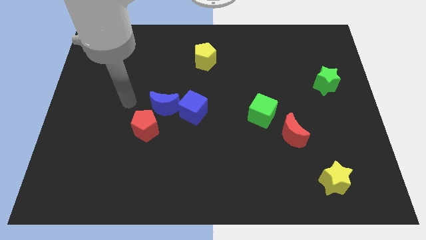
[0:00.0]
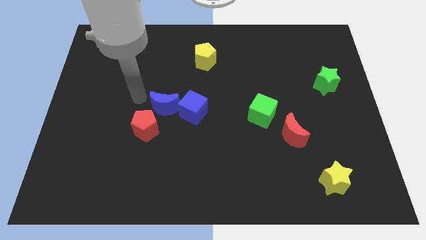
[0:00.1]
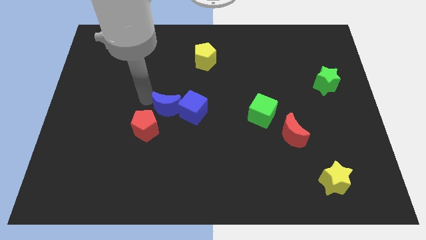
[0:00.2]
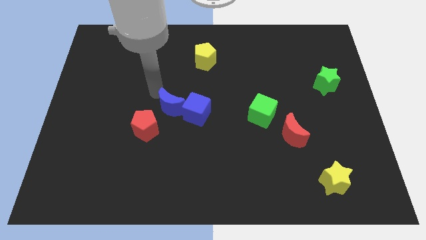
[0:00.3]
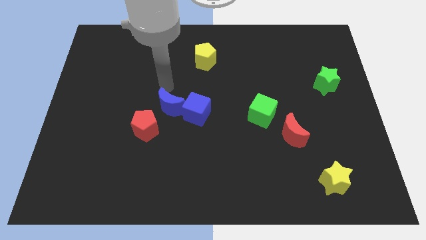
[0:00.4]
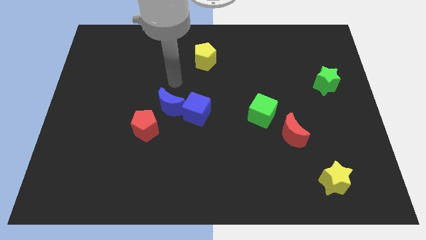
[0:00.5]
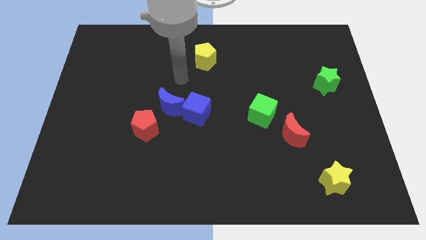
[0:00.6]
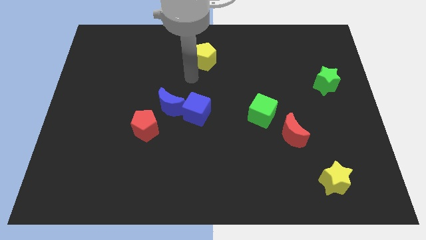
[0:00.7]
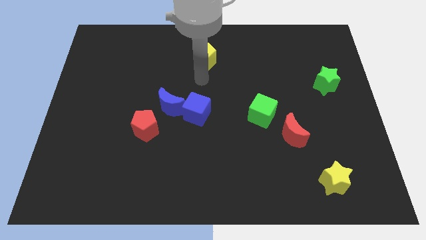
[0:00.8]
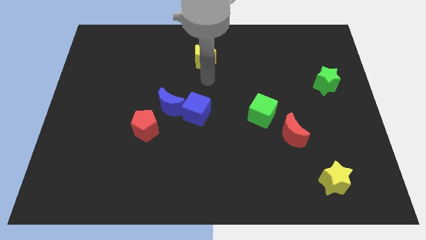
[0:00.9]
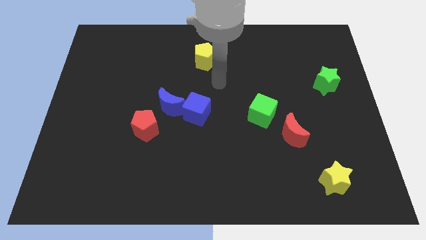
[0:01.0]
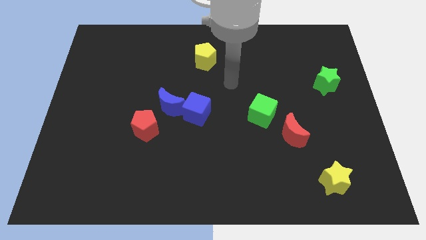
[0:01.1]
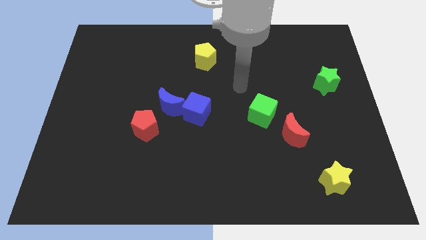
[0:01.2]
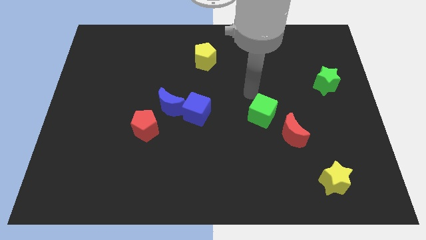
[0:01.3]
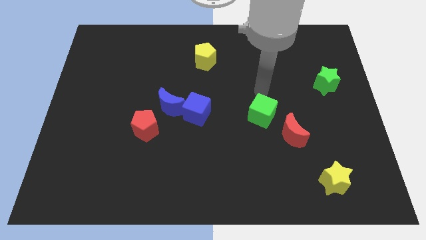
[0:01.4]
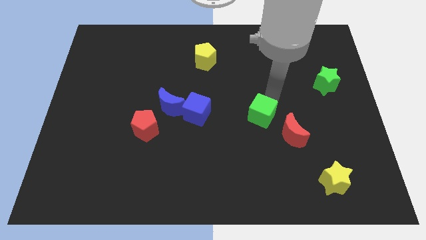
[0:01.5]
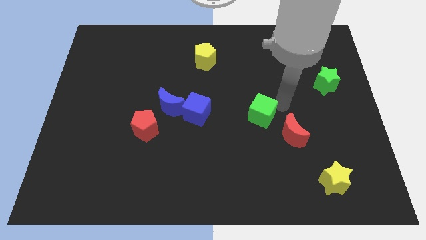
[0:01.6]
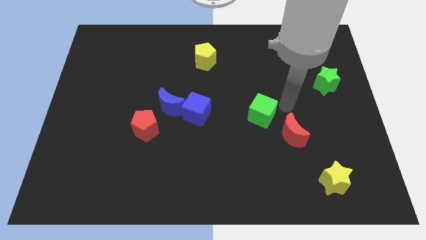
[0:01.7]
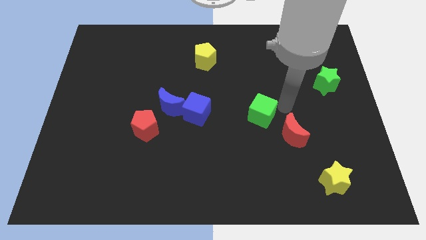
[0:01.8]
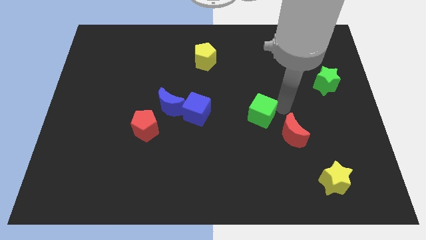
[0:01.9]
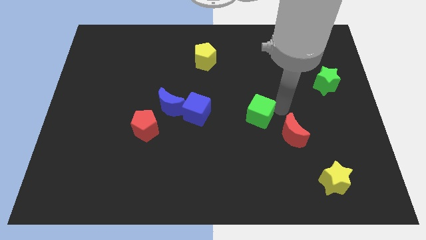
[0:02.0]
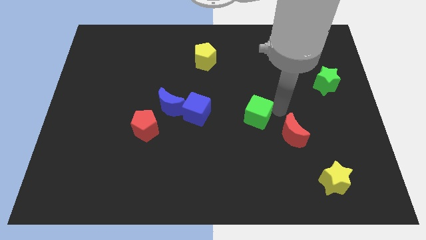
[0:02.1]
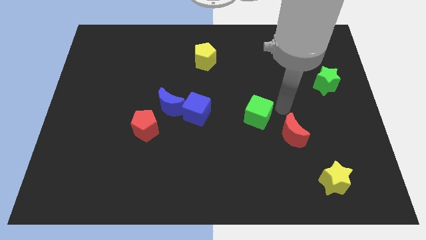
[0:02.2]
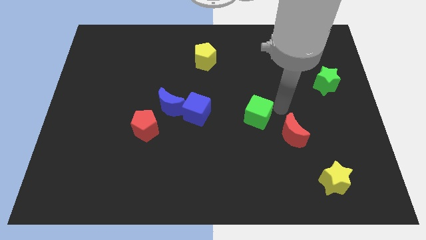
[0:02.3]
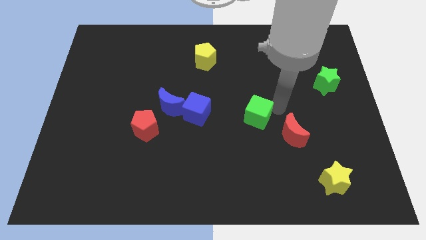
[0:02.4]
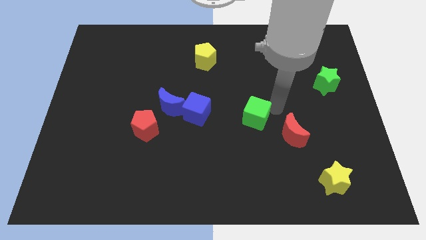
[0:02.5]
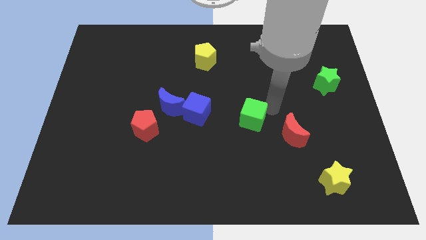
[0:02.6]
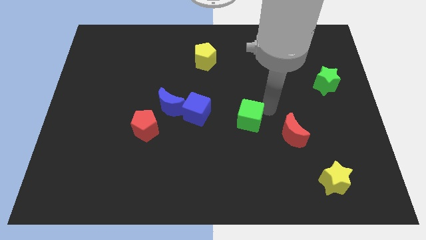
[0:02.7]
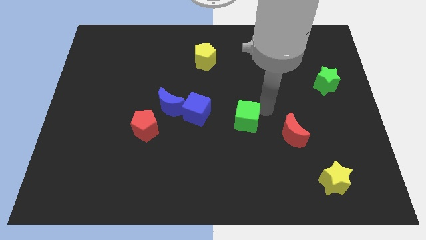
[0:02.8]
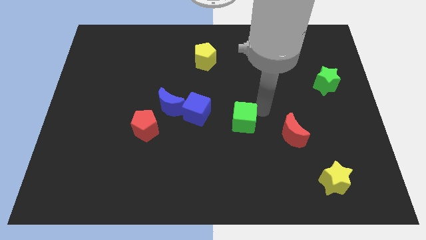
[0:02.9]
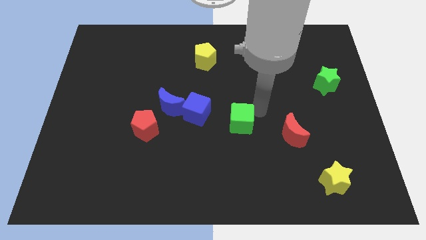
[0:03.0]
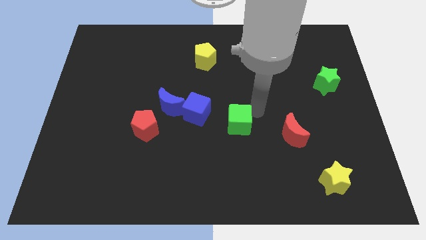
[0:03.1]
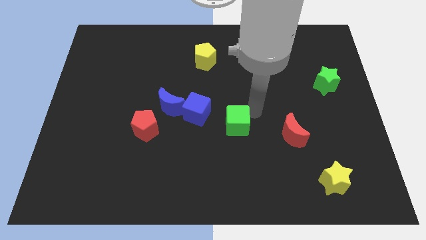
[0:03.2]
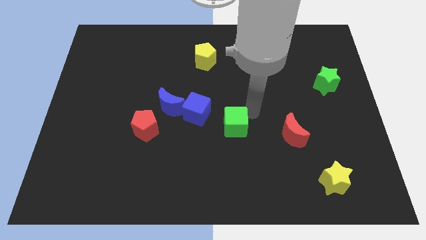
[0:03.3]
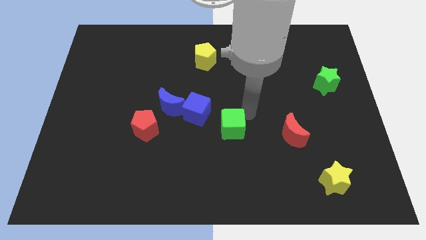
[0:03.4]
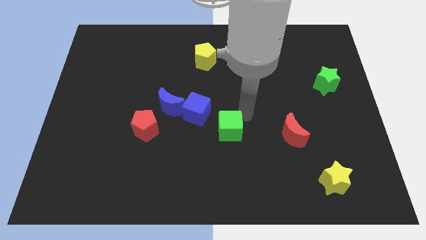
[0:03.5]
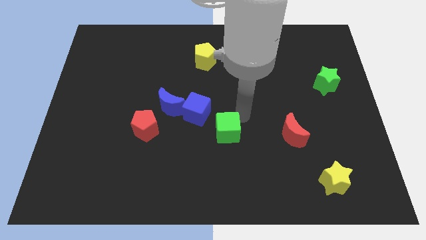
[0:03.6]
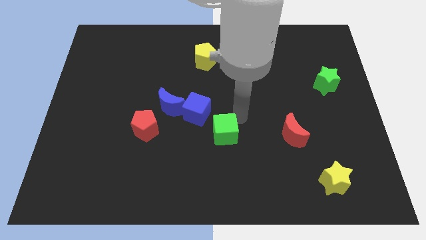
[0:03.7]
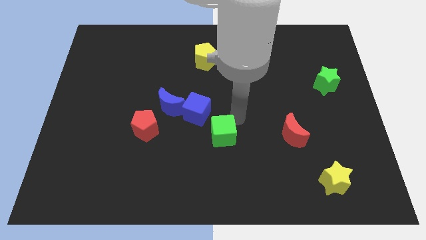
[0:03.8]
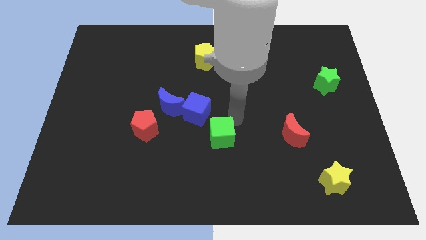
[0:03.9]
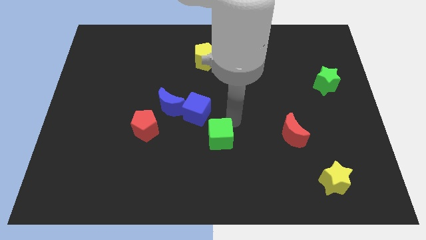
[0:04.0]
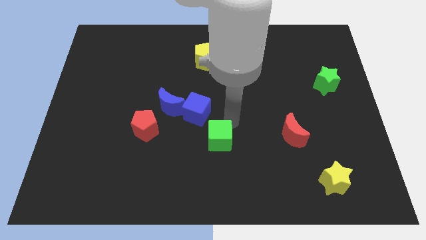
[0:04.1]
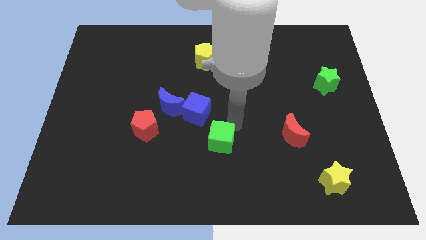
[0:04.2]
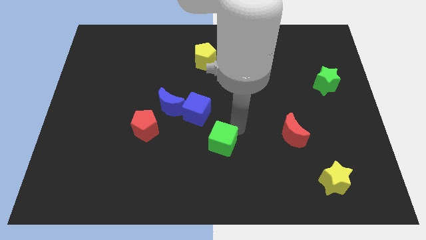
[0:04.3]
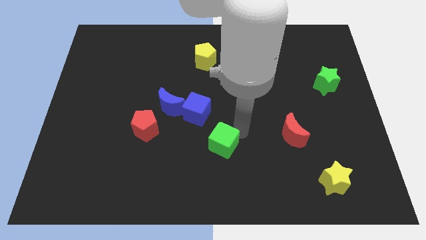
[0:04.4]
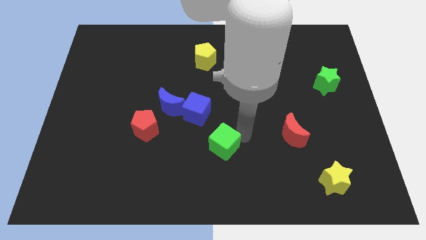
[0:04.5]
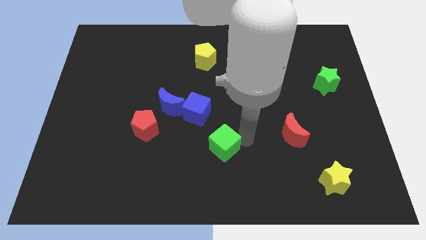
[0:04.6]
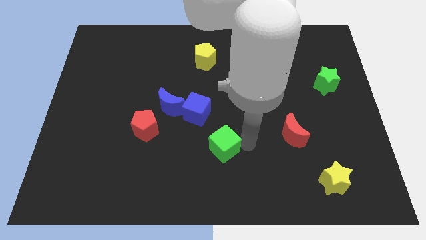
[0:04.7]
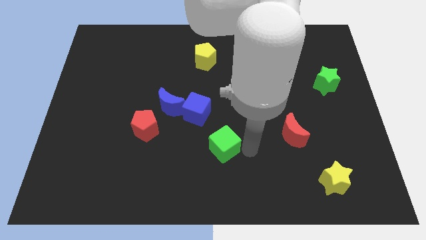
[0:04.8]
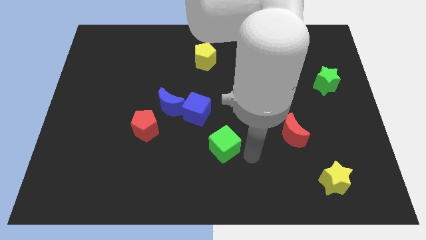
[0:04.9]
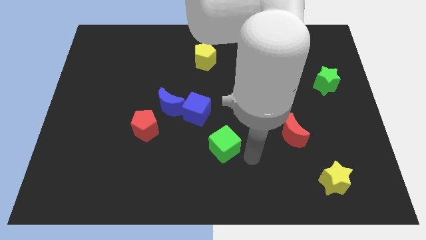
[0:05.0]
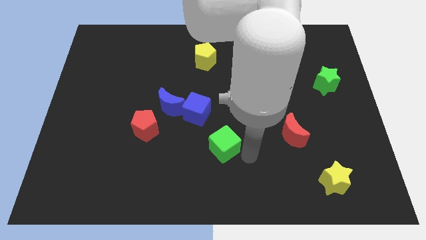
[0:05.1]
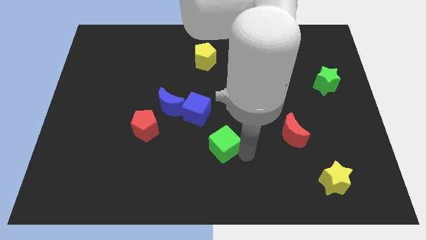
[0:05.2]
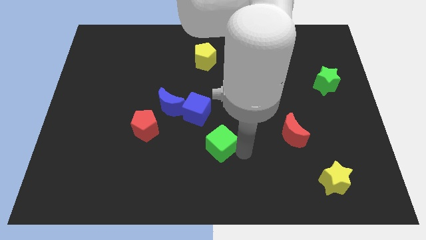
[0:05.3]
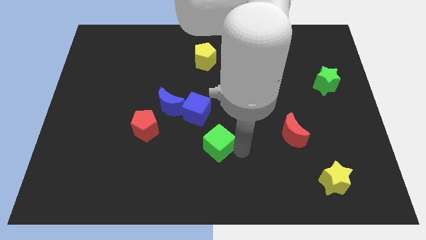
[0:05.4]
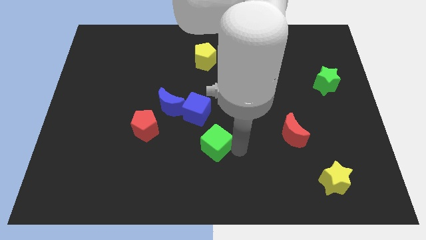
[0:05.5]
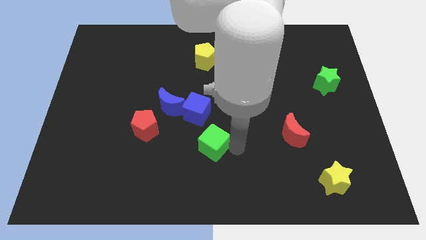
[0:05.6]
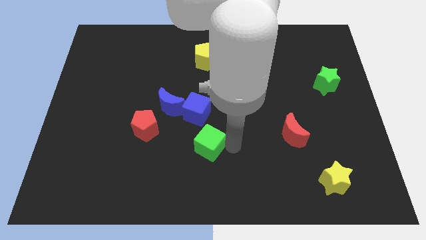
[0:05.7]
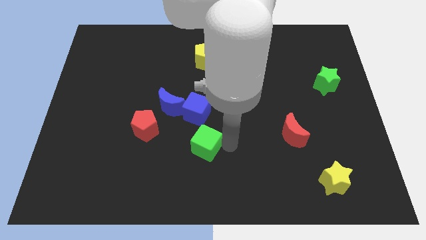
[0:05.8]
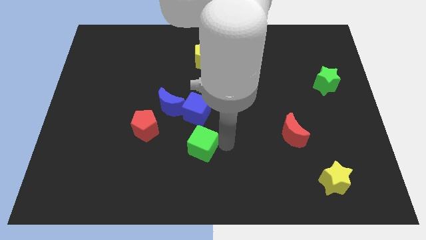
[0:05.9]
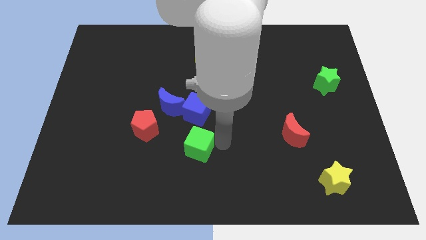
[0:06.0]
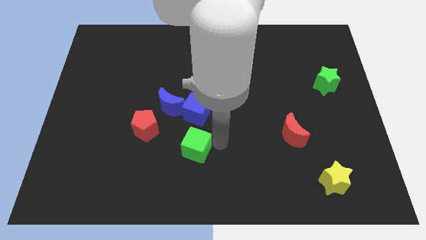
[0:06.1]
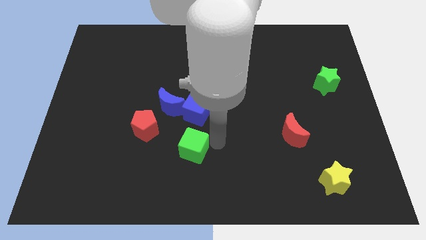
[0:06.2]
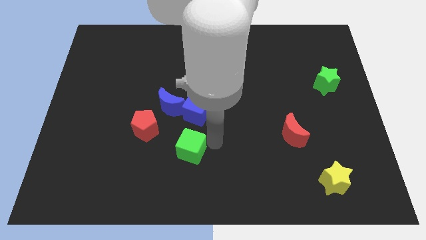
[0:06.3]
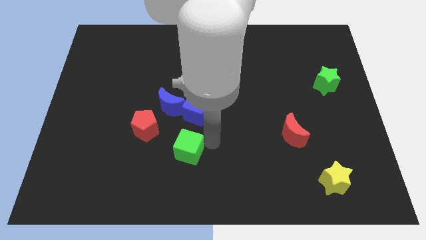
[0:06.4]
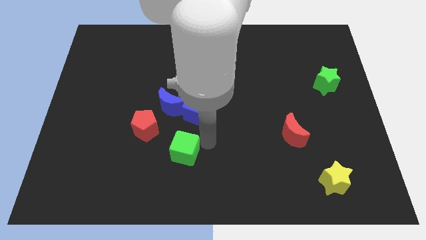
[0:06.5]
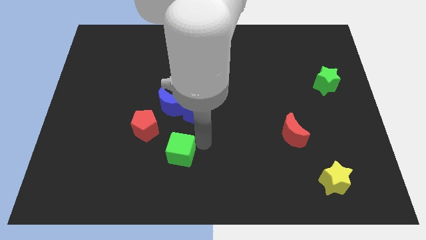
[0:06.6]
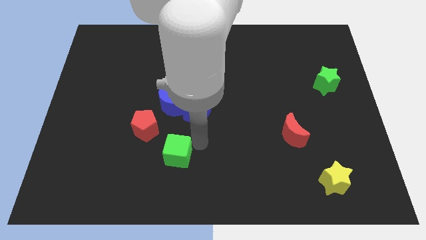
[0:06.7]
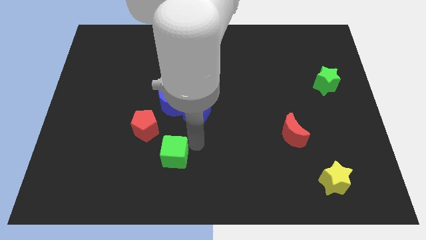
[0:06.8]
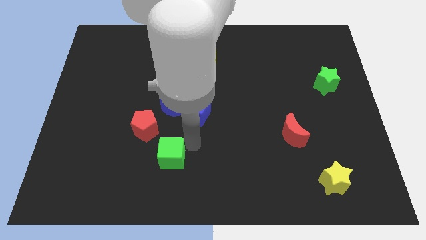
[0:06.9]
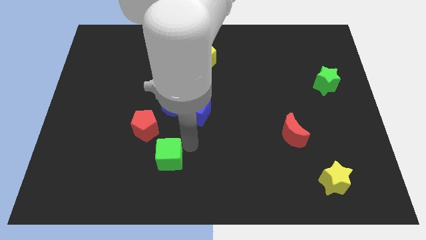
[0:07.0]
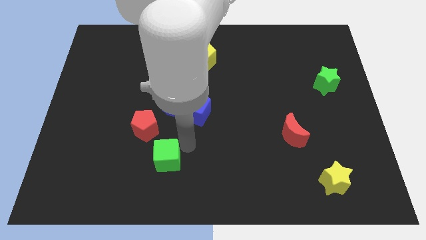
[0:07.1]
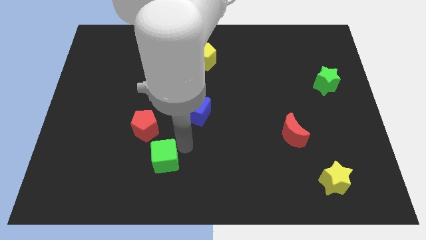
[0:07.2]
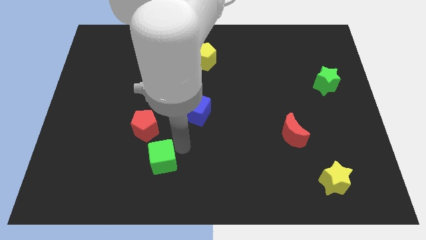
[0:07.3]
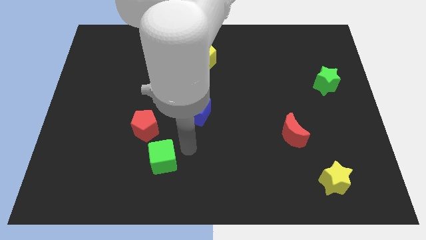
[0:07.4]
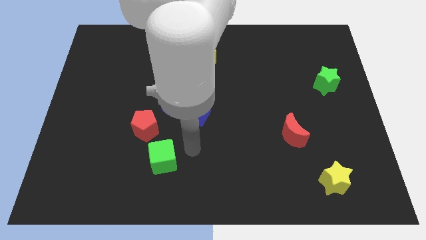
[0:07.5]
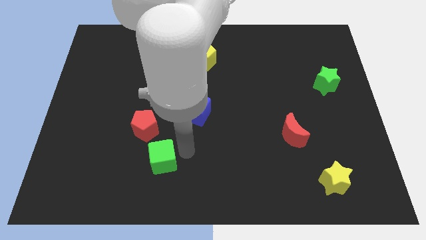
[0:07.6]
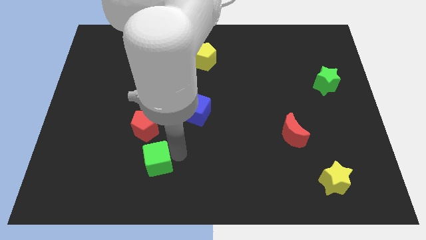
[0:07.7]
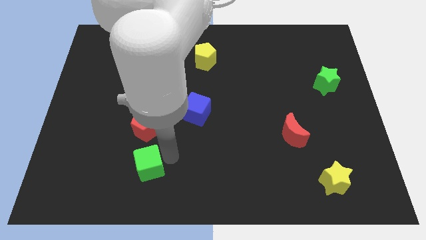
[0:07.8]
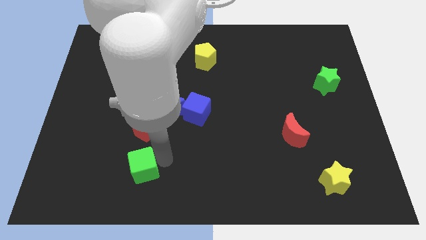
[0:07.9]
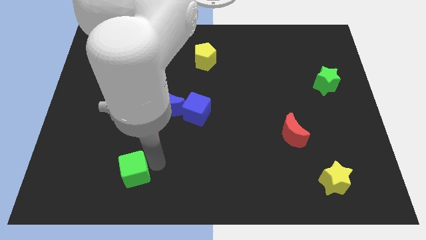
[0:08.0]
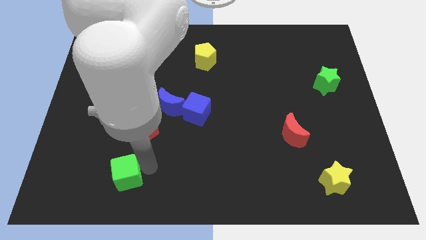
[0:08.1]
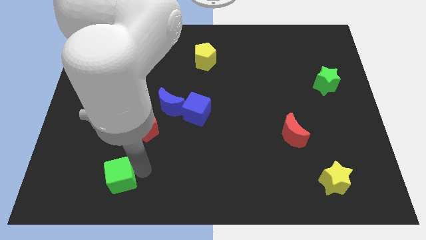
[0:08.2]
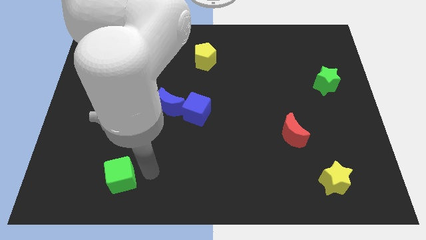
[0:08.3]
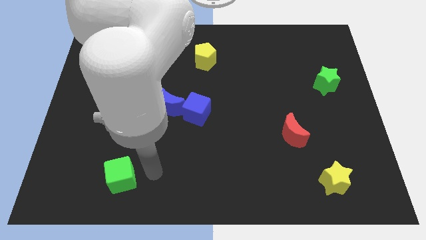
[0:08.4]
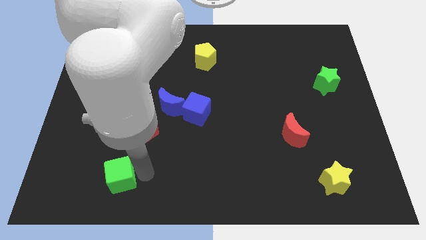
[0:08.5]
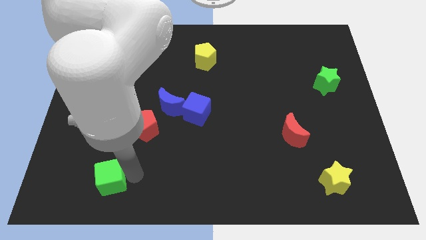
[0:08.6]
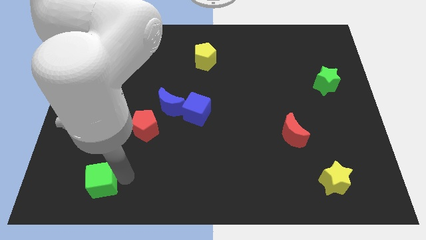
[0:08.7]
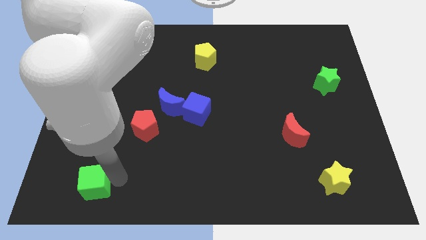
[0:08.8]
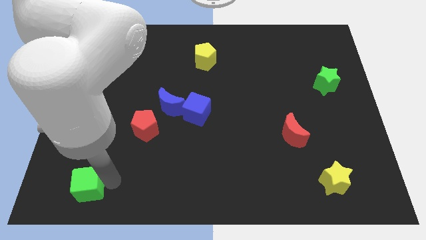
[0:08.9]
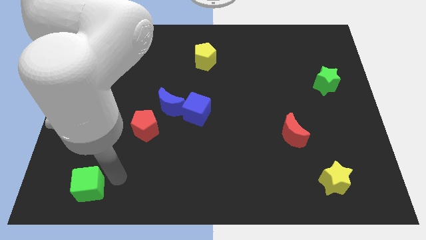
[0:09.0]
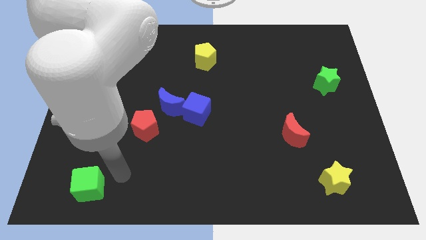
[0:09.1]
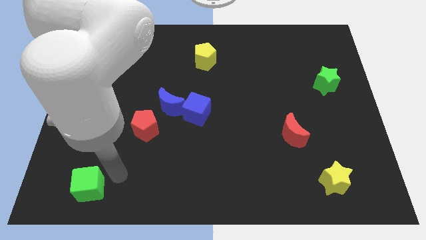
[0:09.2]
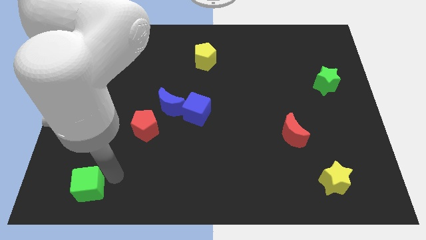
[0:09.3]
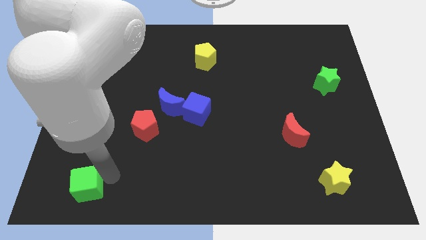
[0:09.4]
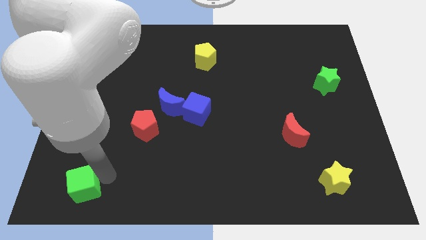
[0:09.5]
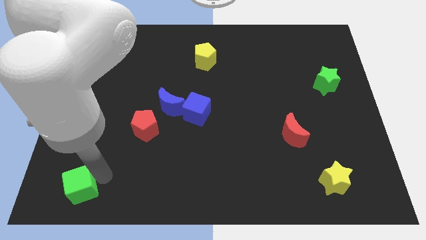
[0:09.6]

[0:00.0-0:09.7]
slide the green cube to the bottom left of the board
